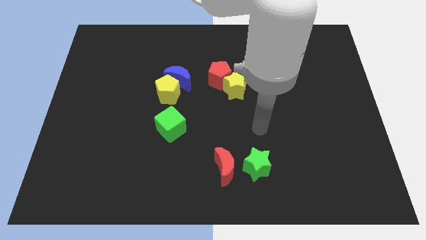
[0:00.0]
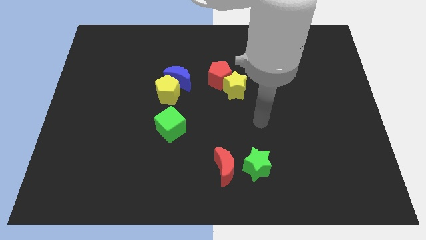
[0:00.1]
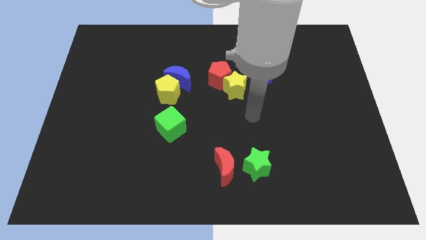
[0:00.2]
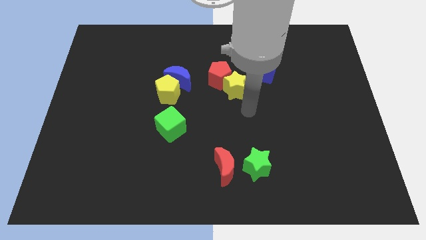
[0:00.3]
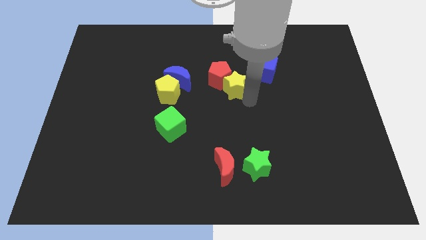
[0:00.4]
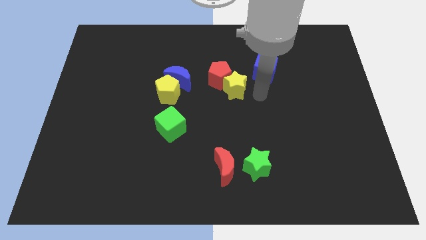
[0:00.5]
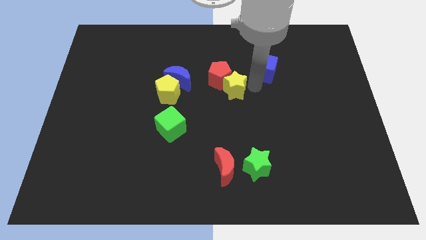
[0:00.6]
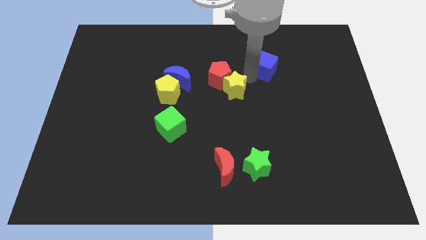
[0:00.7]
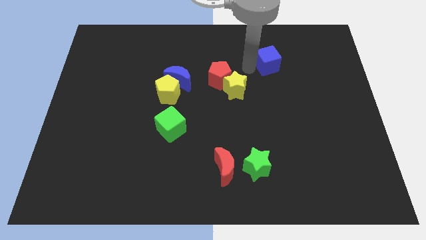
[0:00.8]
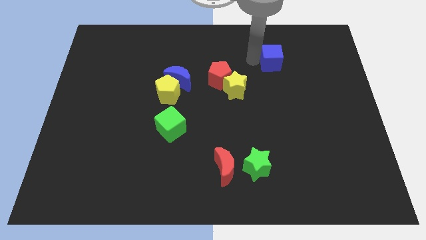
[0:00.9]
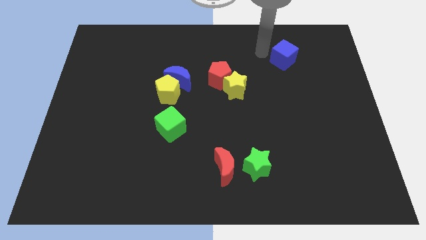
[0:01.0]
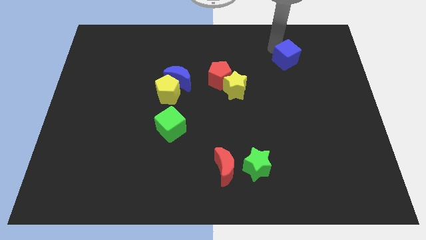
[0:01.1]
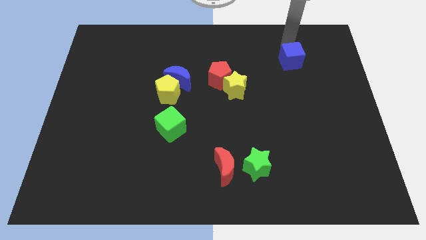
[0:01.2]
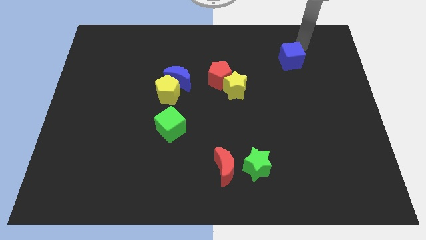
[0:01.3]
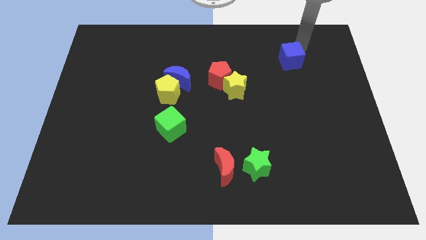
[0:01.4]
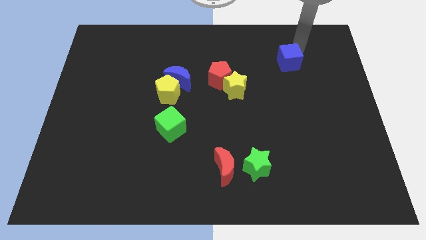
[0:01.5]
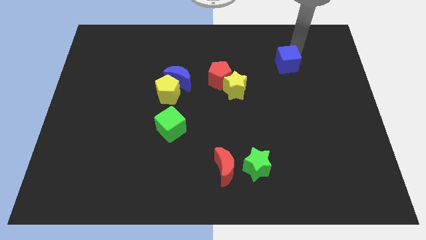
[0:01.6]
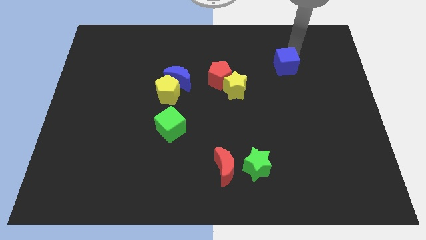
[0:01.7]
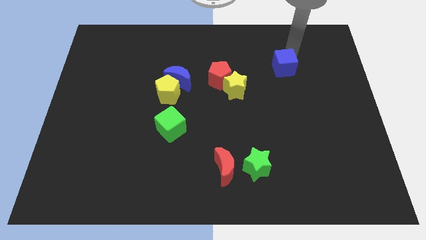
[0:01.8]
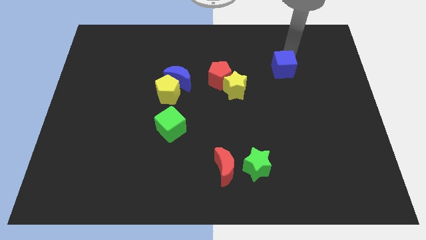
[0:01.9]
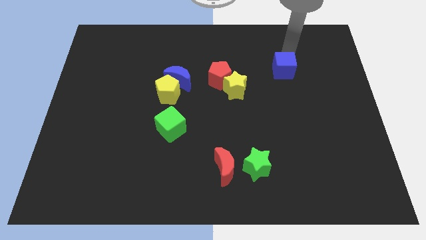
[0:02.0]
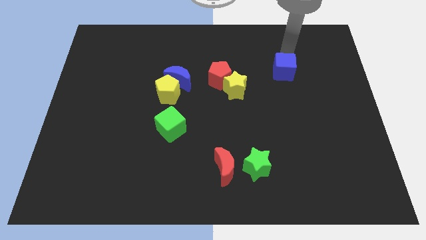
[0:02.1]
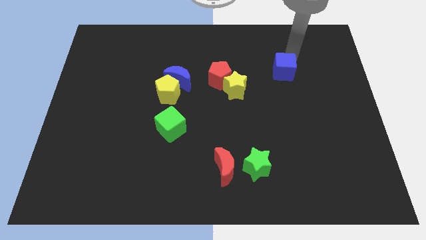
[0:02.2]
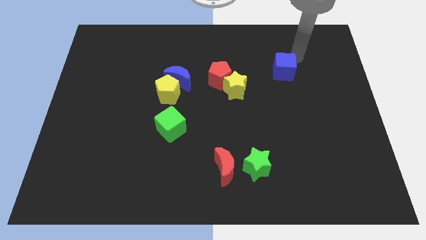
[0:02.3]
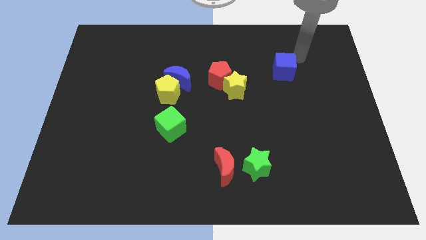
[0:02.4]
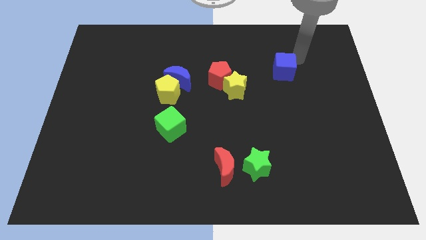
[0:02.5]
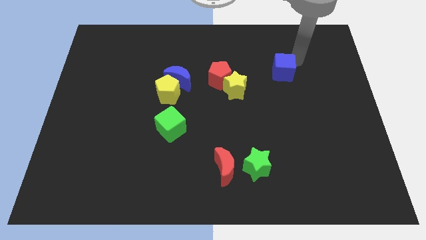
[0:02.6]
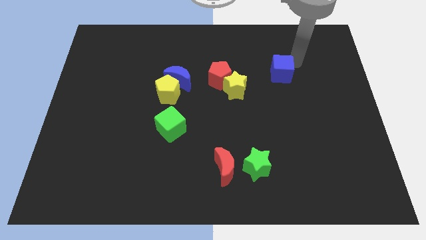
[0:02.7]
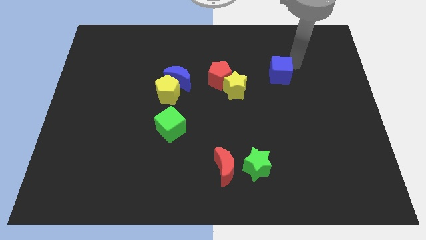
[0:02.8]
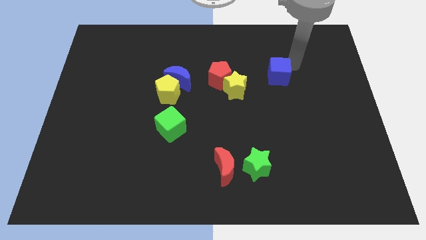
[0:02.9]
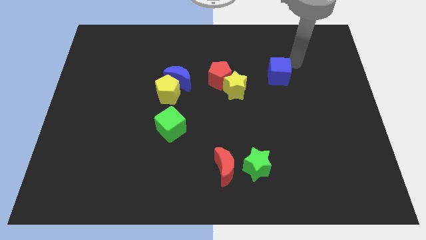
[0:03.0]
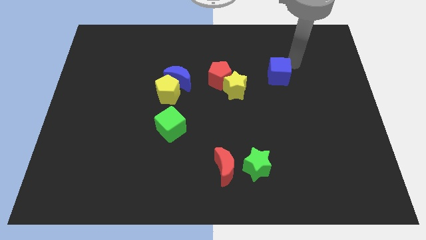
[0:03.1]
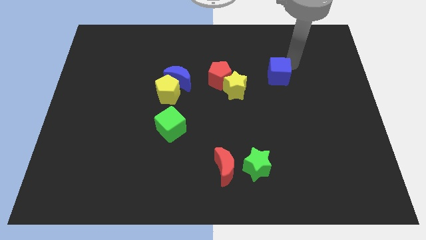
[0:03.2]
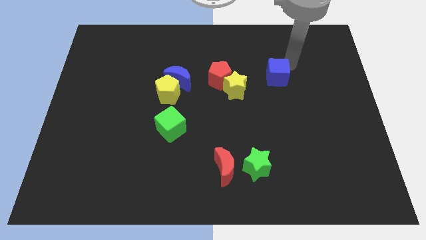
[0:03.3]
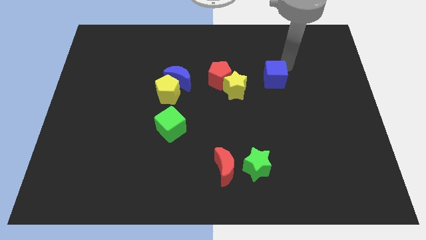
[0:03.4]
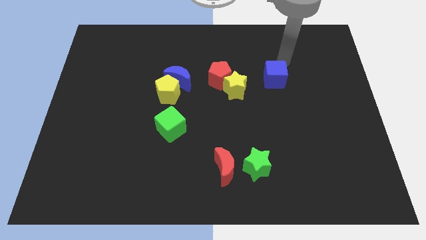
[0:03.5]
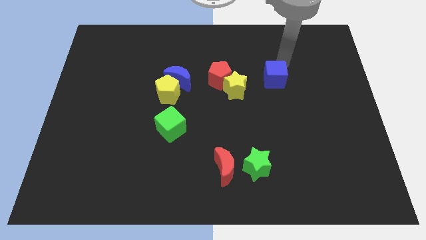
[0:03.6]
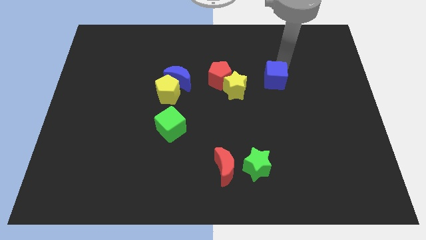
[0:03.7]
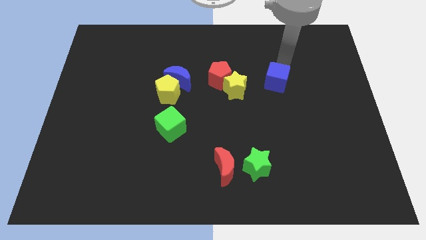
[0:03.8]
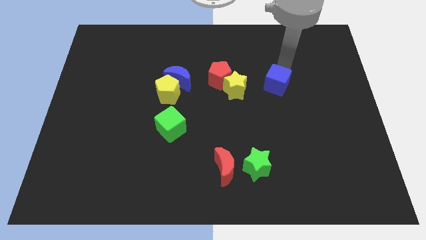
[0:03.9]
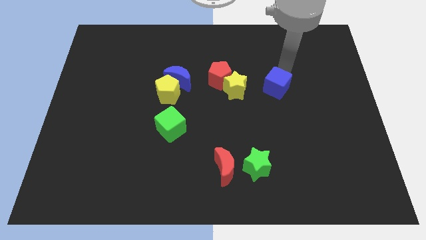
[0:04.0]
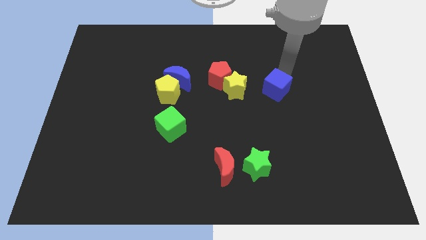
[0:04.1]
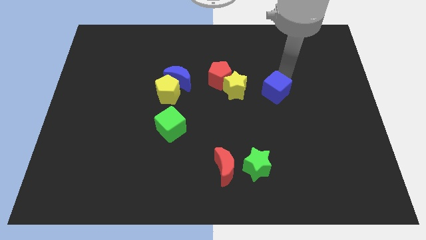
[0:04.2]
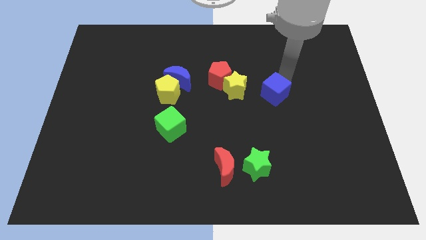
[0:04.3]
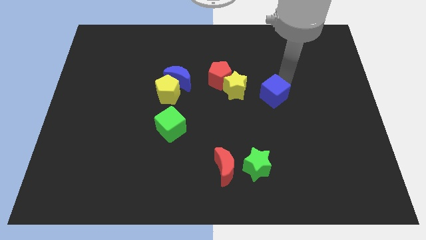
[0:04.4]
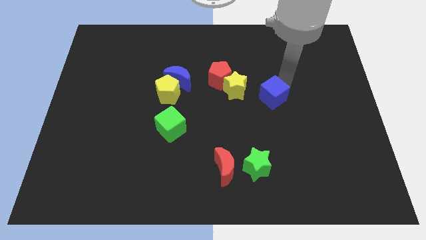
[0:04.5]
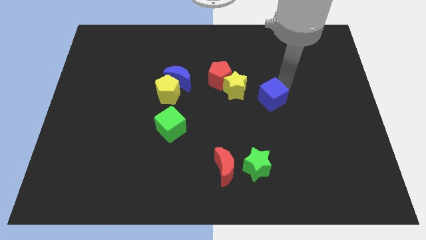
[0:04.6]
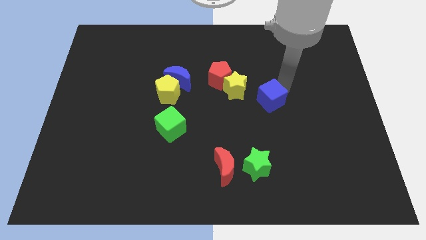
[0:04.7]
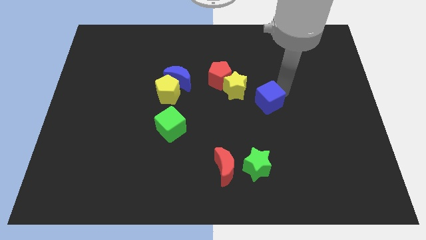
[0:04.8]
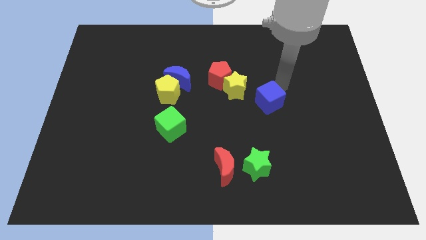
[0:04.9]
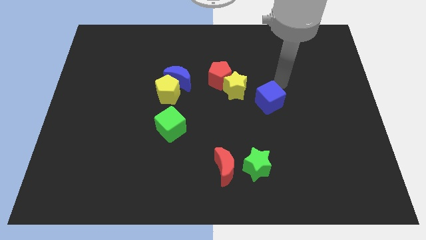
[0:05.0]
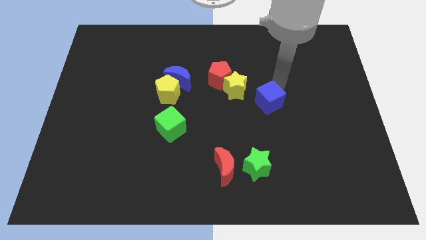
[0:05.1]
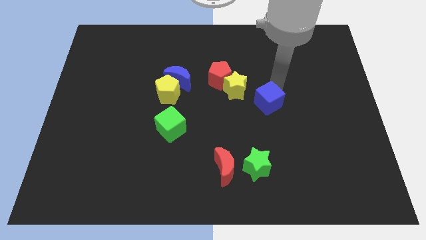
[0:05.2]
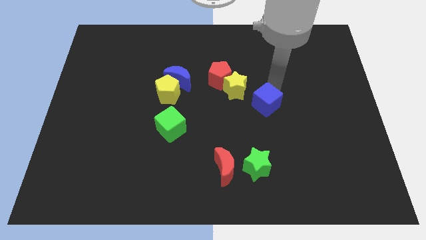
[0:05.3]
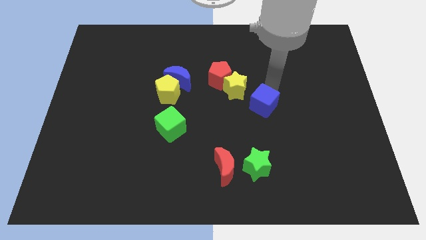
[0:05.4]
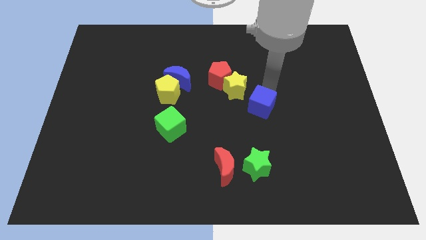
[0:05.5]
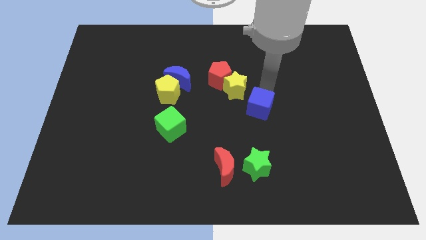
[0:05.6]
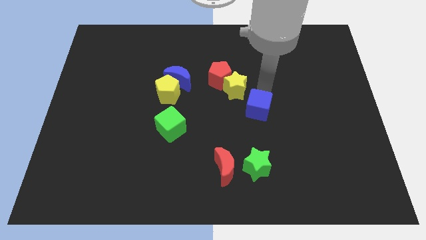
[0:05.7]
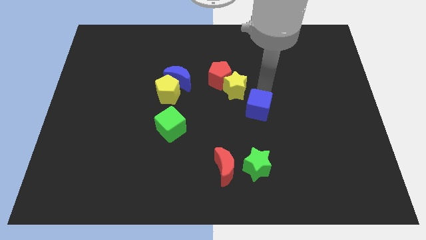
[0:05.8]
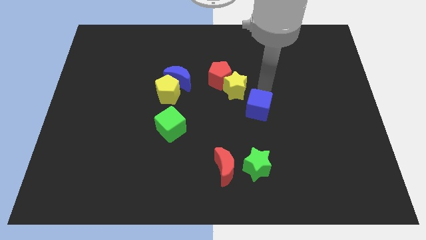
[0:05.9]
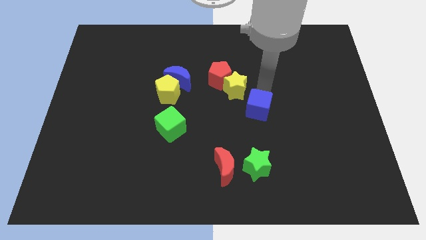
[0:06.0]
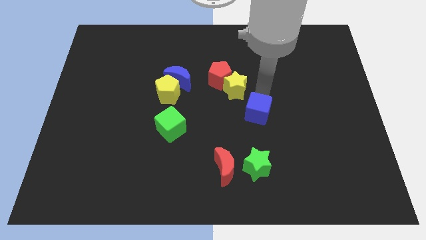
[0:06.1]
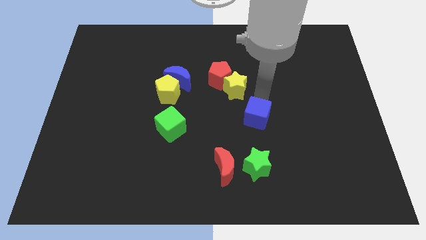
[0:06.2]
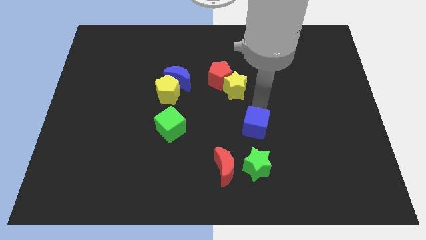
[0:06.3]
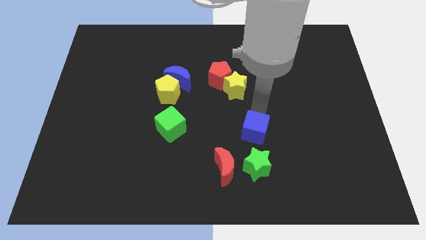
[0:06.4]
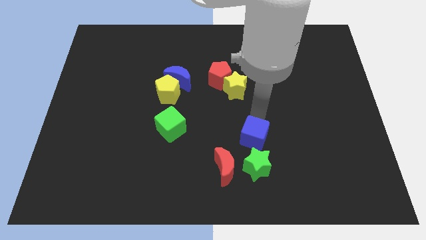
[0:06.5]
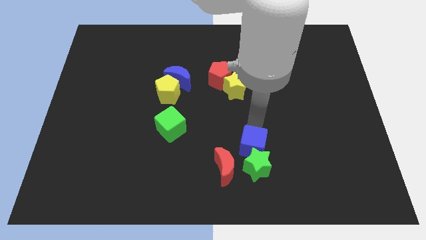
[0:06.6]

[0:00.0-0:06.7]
move the blue cube close to the green star
